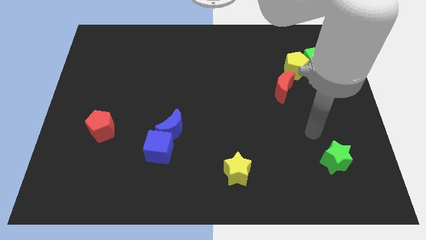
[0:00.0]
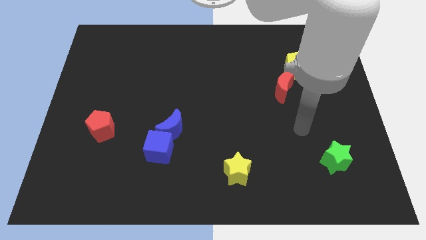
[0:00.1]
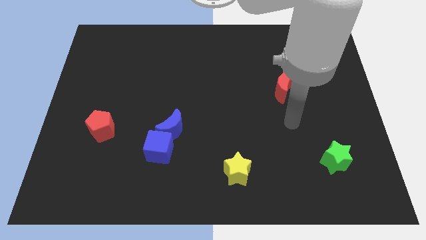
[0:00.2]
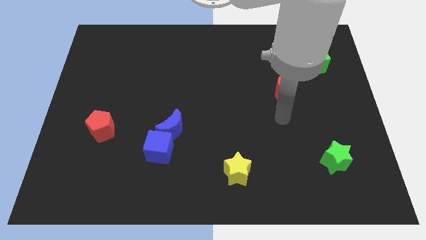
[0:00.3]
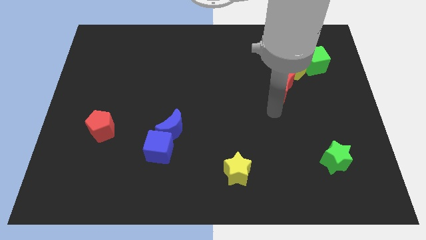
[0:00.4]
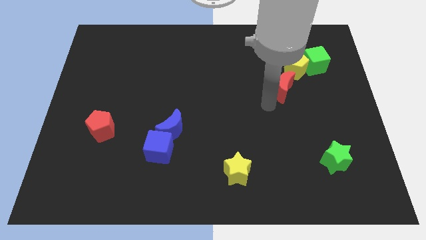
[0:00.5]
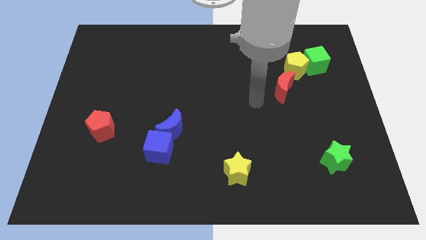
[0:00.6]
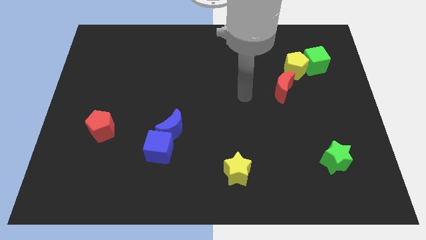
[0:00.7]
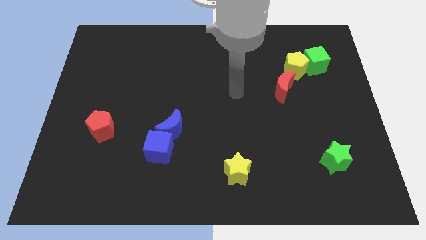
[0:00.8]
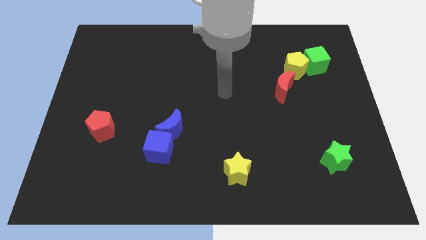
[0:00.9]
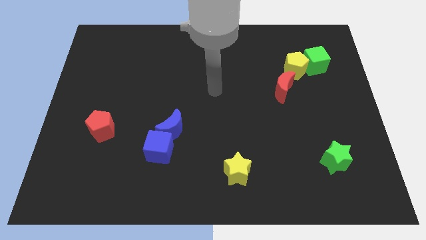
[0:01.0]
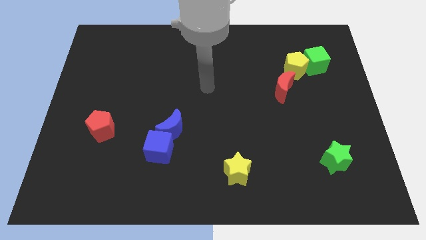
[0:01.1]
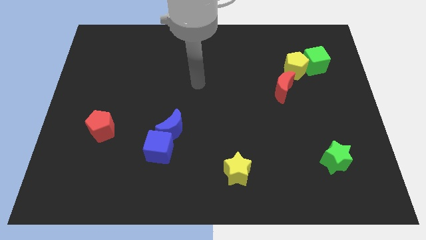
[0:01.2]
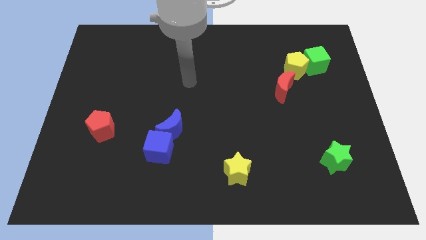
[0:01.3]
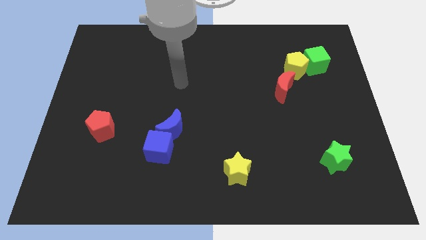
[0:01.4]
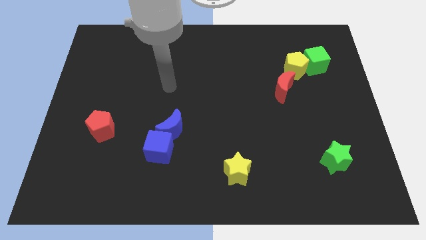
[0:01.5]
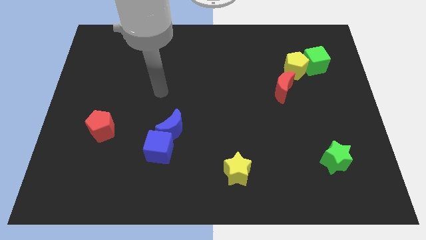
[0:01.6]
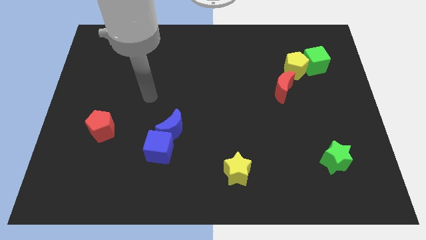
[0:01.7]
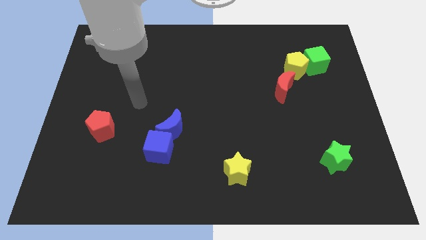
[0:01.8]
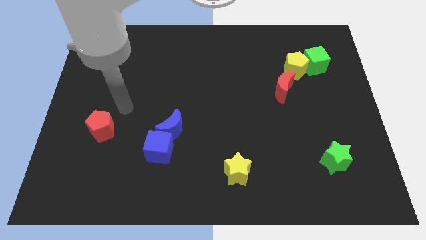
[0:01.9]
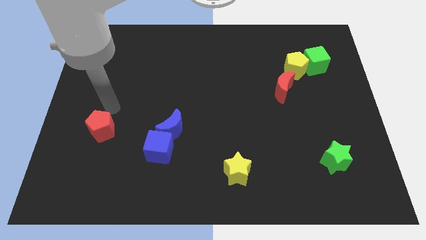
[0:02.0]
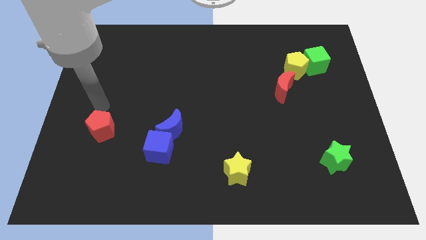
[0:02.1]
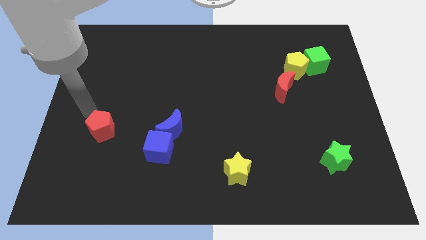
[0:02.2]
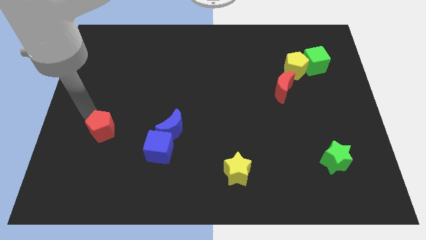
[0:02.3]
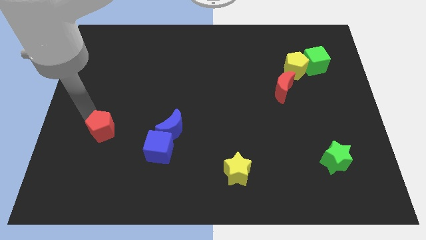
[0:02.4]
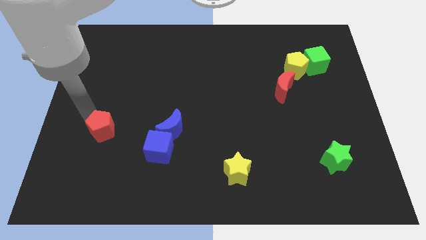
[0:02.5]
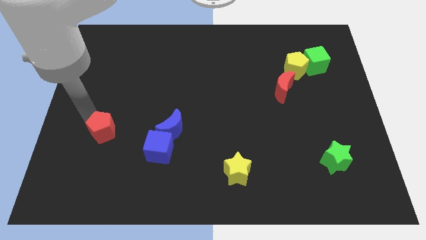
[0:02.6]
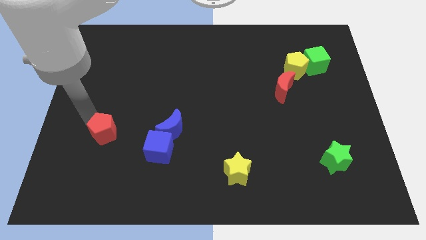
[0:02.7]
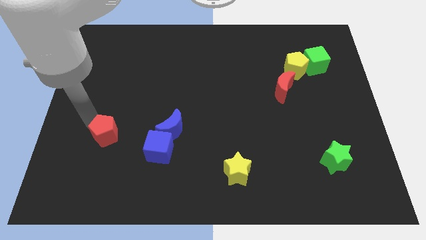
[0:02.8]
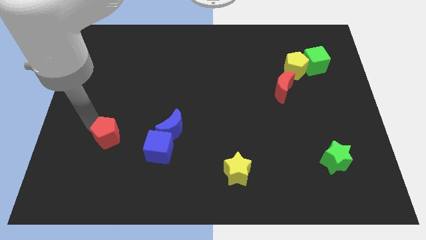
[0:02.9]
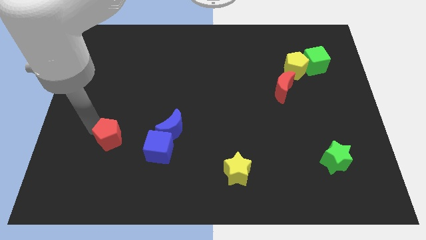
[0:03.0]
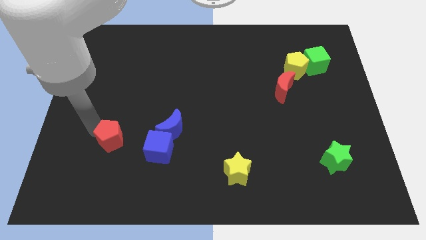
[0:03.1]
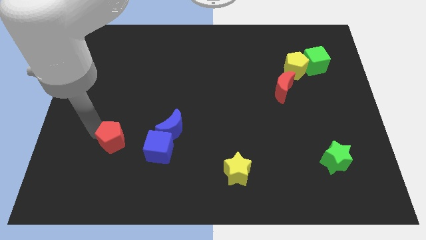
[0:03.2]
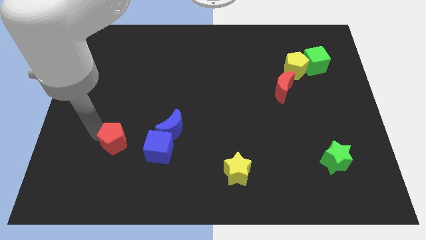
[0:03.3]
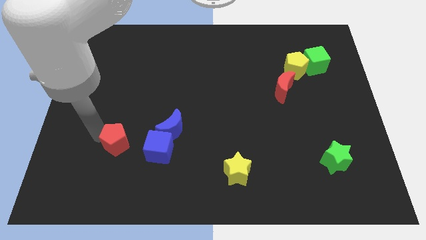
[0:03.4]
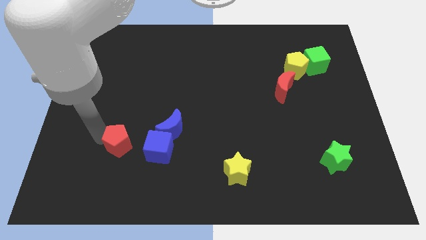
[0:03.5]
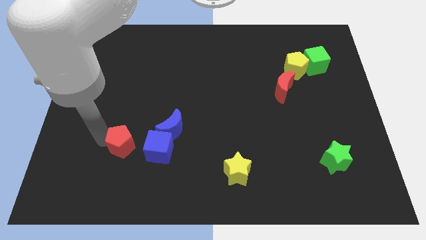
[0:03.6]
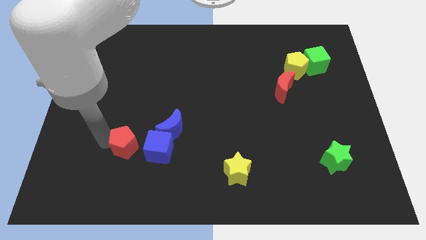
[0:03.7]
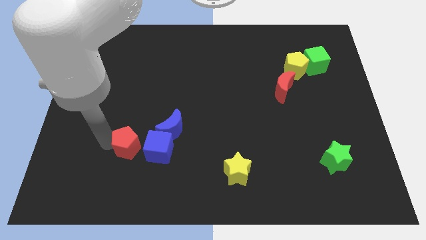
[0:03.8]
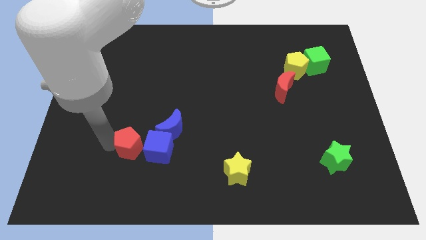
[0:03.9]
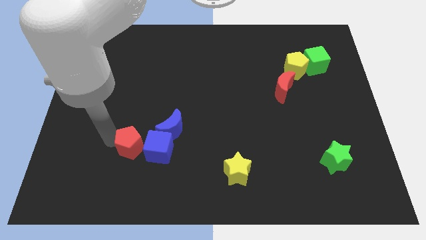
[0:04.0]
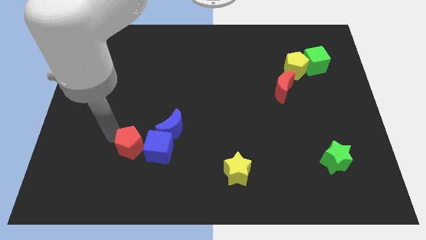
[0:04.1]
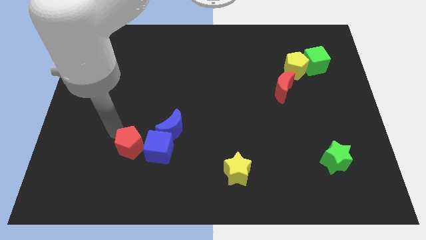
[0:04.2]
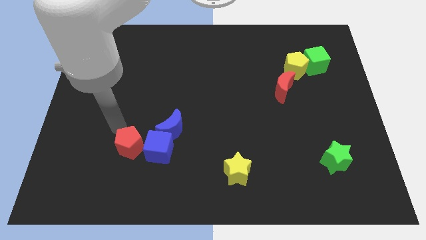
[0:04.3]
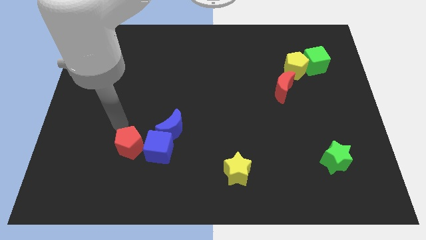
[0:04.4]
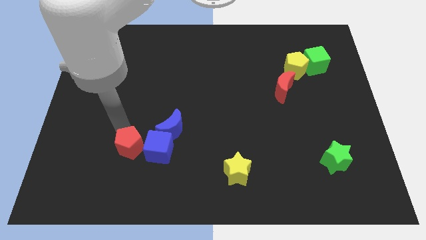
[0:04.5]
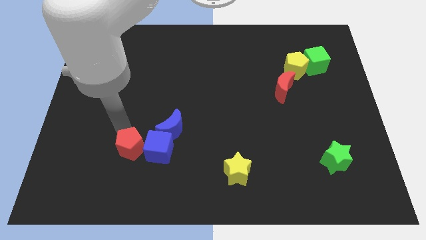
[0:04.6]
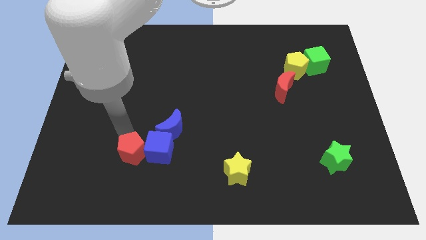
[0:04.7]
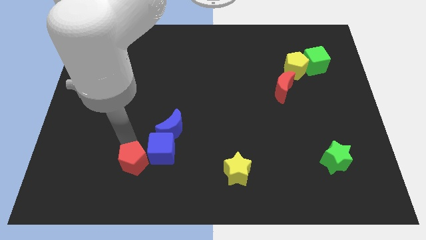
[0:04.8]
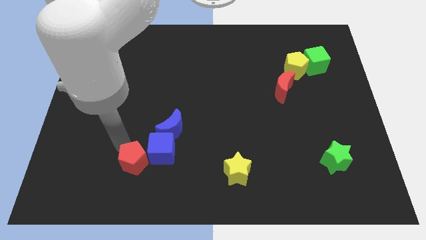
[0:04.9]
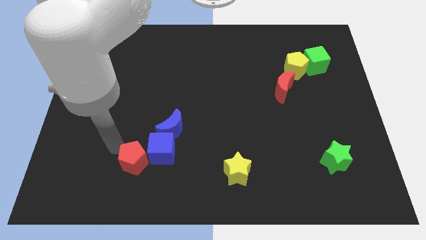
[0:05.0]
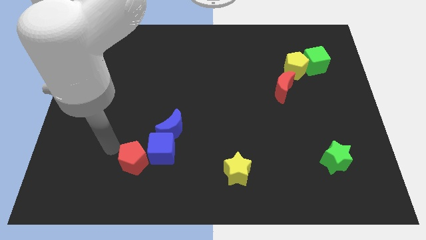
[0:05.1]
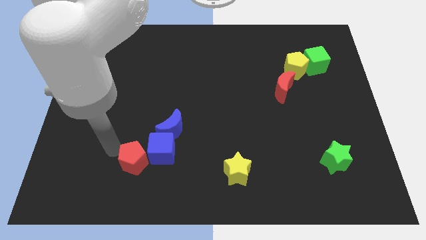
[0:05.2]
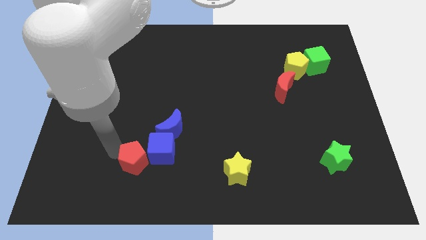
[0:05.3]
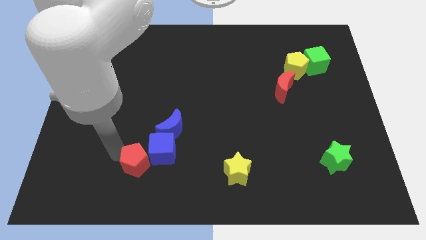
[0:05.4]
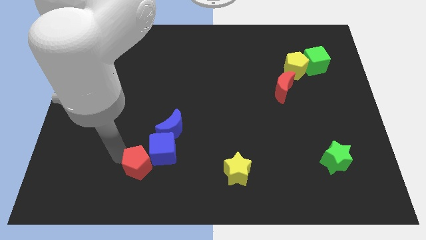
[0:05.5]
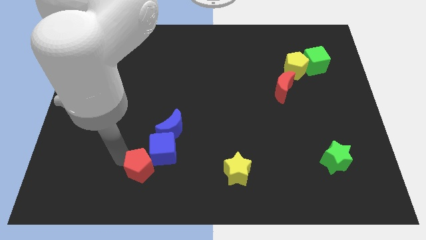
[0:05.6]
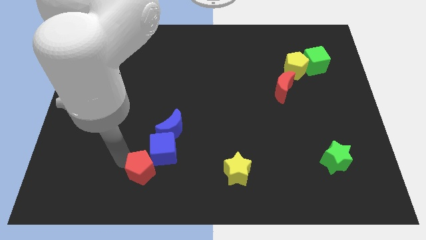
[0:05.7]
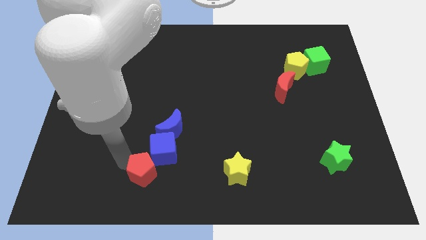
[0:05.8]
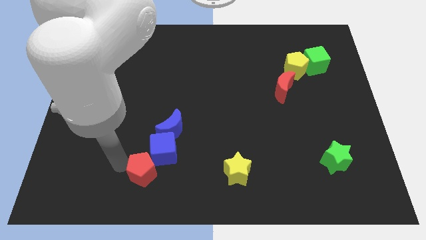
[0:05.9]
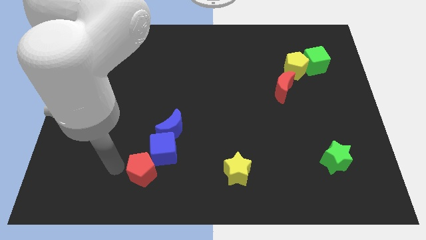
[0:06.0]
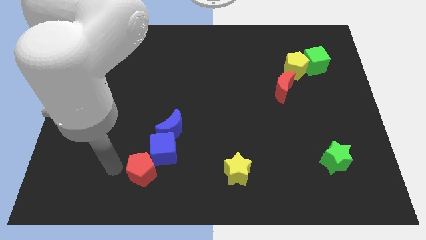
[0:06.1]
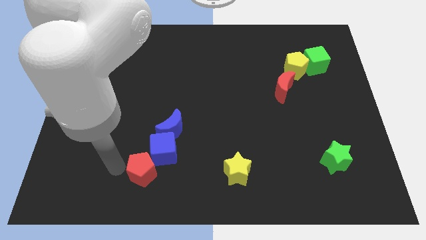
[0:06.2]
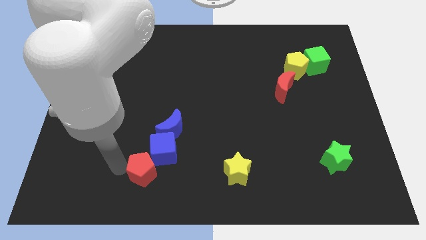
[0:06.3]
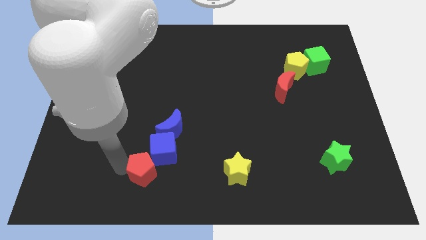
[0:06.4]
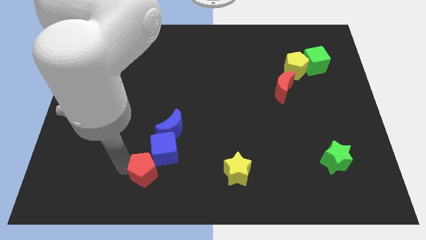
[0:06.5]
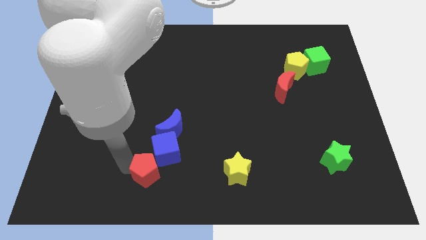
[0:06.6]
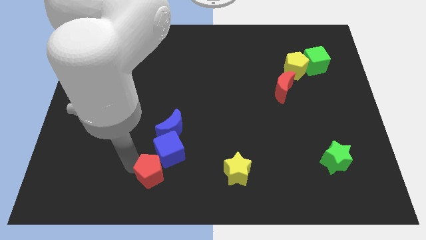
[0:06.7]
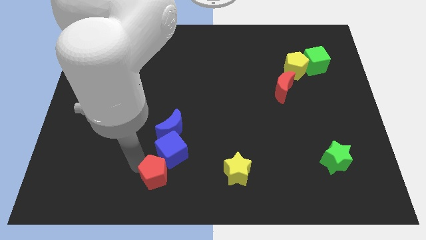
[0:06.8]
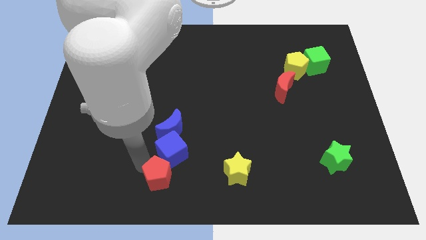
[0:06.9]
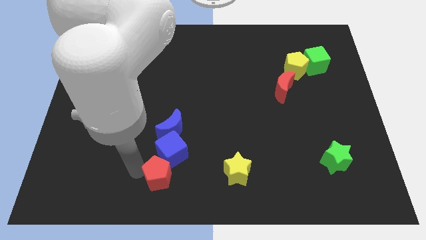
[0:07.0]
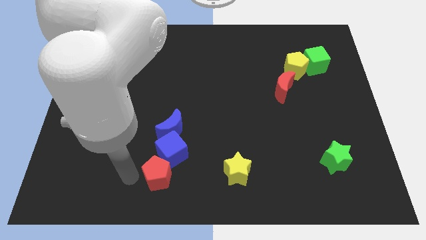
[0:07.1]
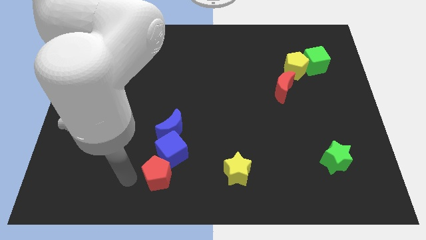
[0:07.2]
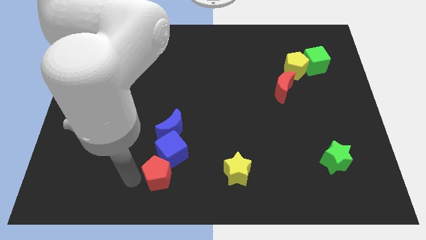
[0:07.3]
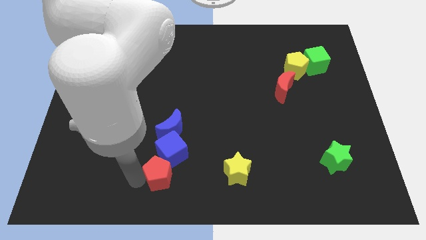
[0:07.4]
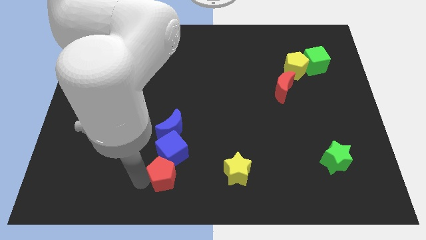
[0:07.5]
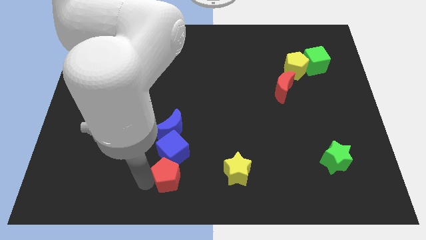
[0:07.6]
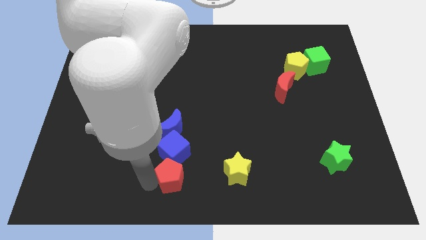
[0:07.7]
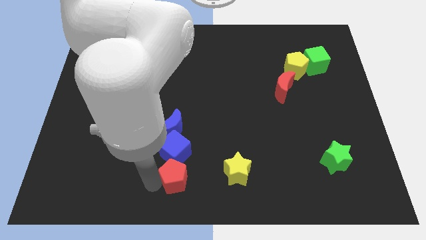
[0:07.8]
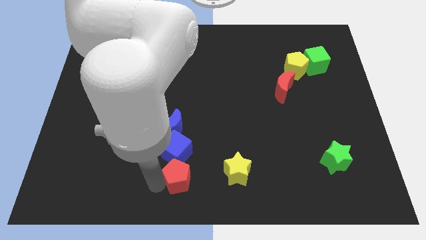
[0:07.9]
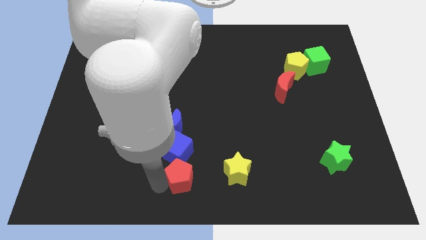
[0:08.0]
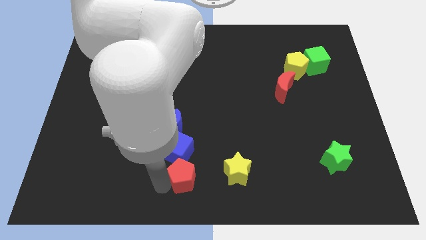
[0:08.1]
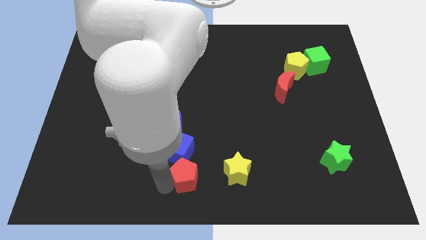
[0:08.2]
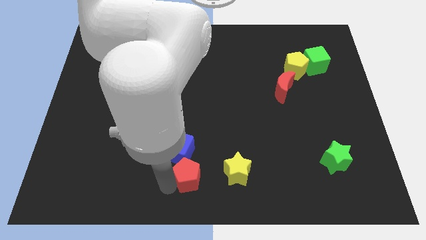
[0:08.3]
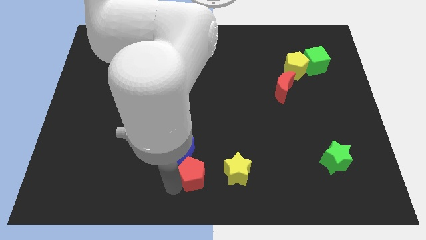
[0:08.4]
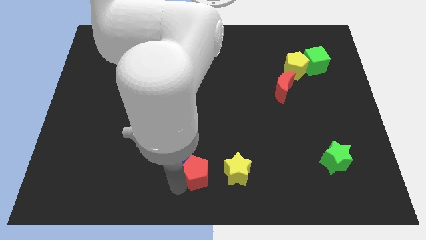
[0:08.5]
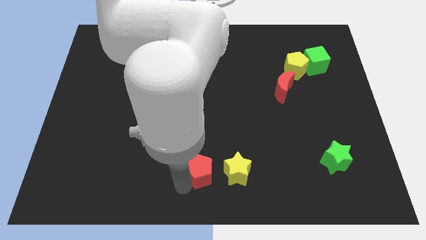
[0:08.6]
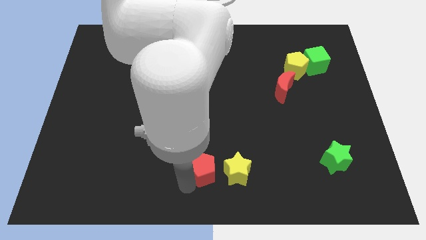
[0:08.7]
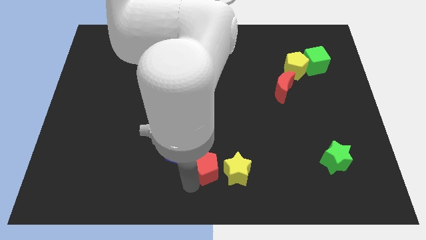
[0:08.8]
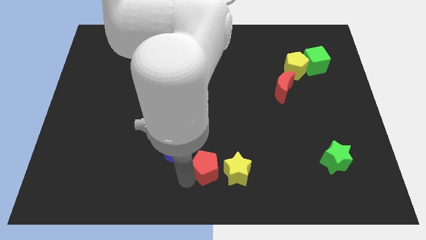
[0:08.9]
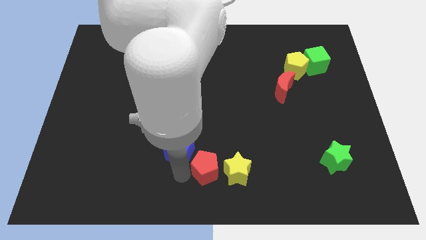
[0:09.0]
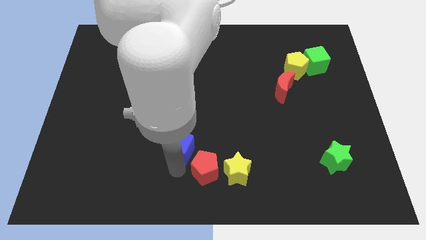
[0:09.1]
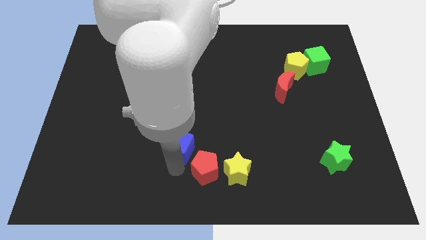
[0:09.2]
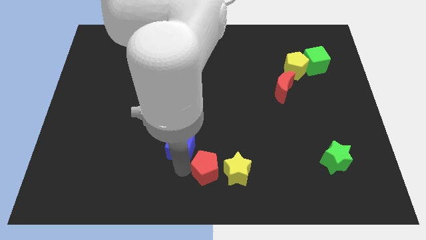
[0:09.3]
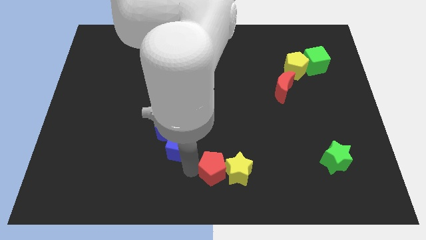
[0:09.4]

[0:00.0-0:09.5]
slide the red pentagon next to the yellow star
